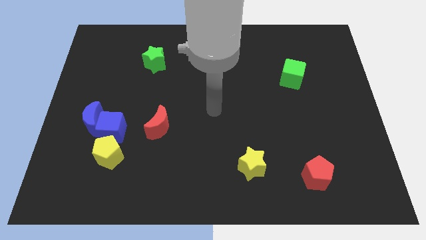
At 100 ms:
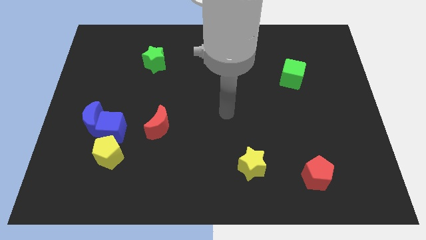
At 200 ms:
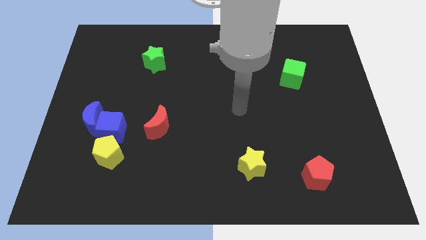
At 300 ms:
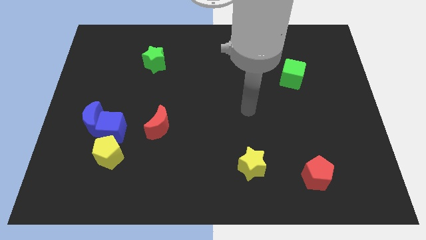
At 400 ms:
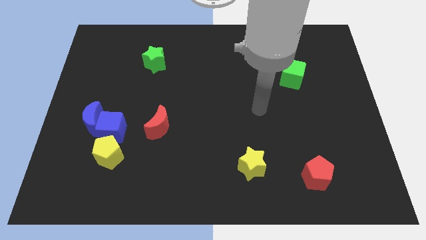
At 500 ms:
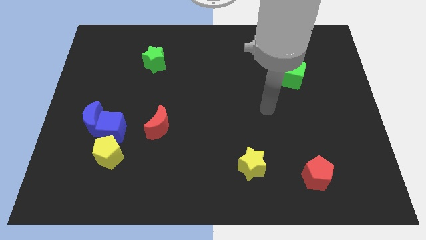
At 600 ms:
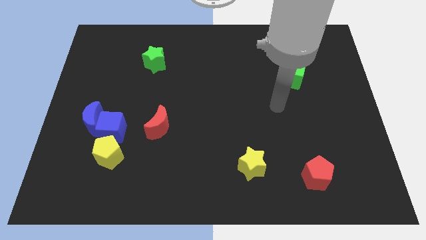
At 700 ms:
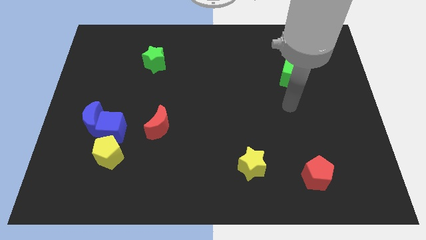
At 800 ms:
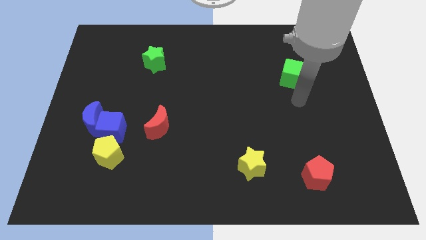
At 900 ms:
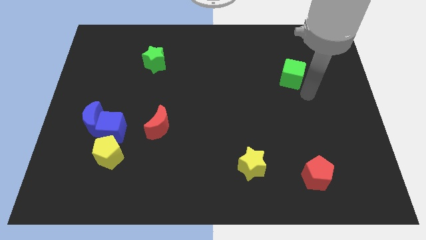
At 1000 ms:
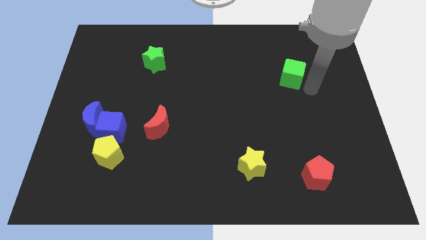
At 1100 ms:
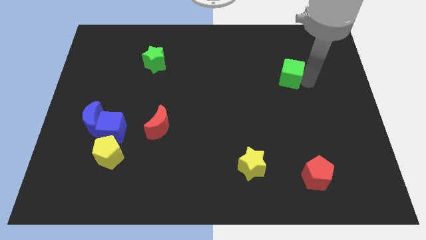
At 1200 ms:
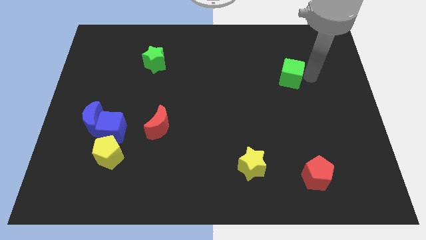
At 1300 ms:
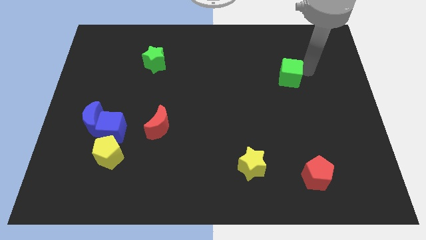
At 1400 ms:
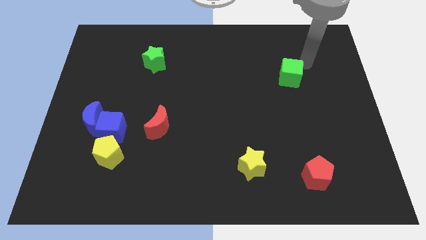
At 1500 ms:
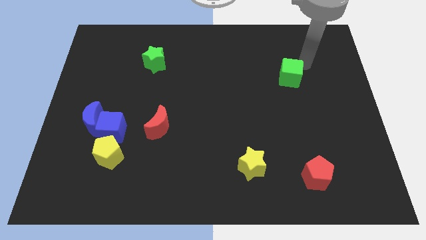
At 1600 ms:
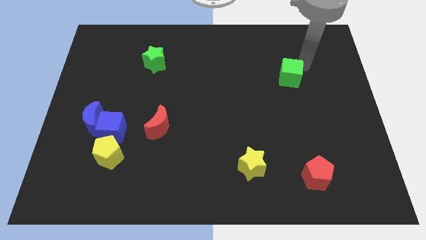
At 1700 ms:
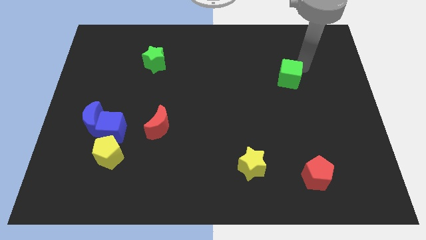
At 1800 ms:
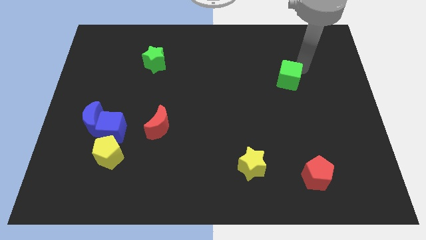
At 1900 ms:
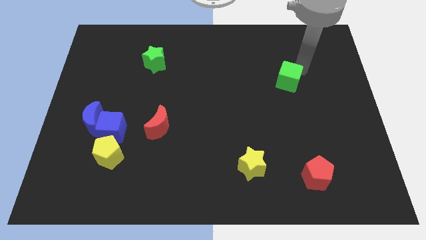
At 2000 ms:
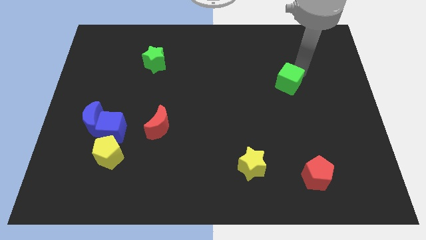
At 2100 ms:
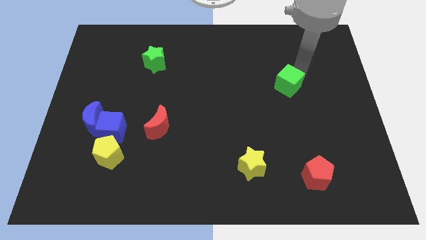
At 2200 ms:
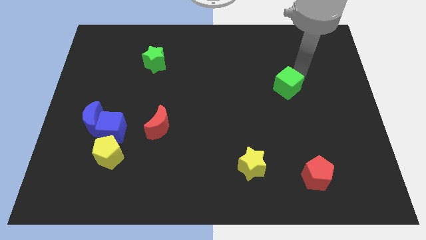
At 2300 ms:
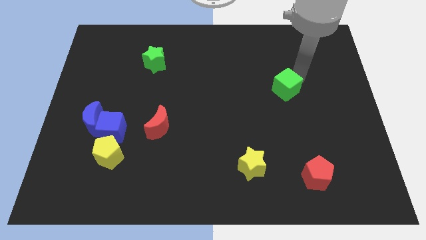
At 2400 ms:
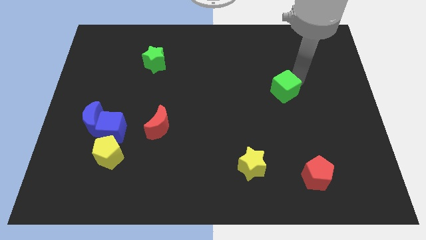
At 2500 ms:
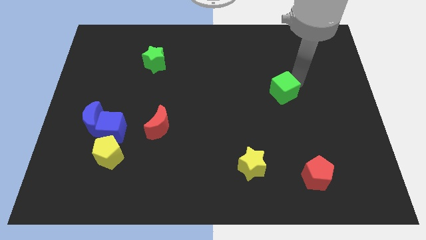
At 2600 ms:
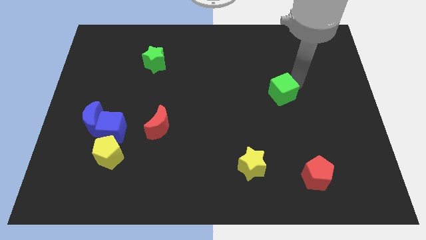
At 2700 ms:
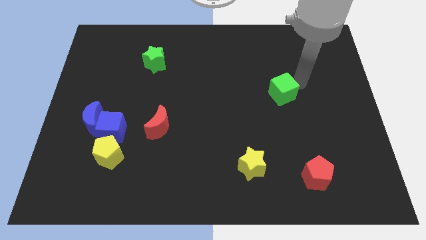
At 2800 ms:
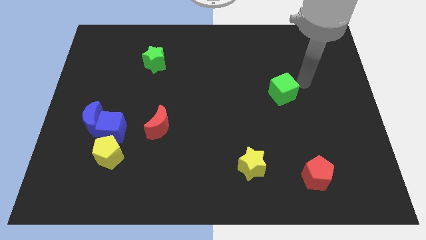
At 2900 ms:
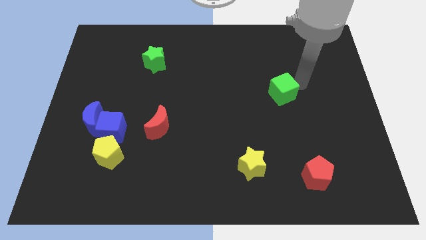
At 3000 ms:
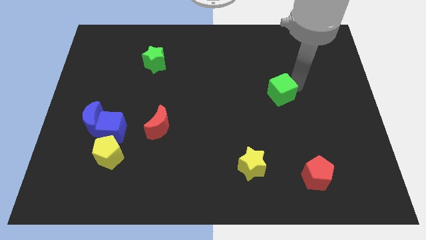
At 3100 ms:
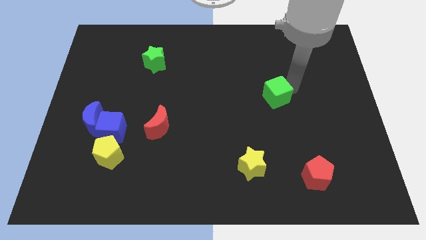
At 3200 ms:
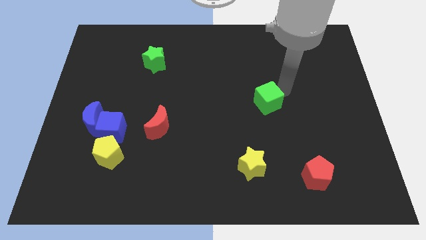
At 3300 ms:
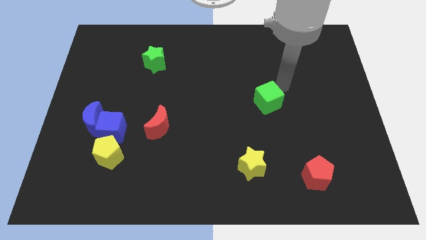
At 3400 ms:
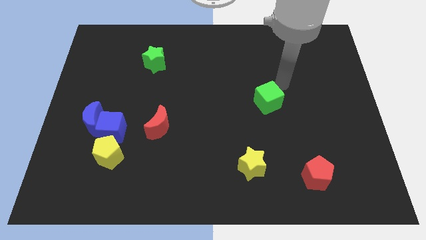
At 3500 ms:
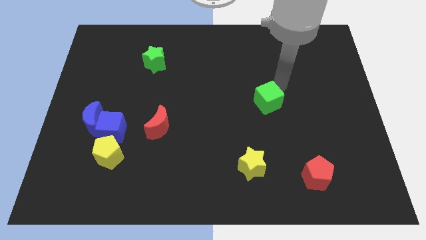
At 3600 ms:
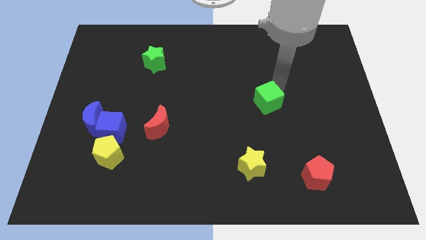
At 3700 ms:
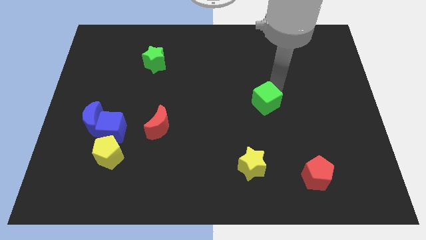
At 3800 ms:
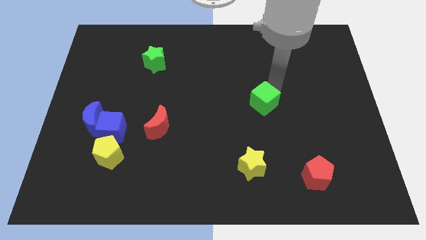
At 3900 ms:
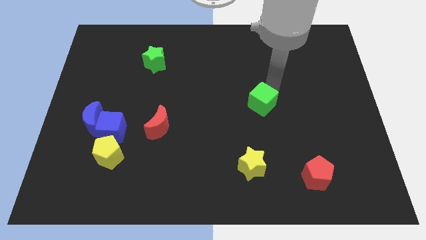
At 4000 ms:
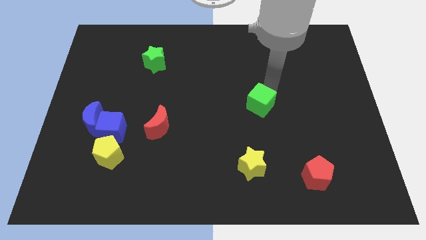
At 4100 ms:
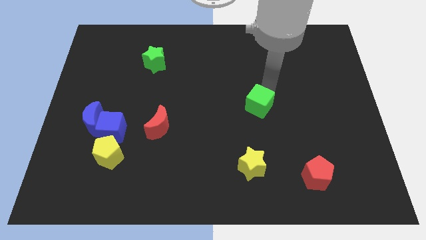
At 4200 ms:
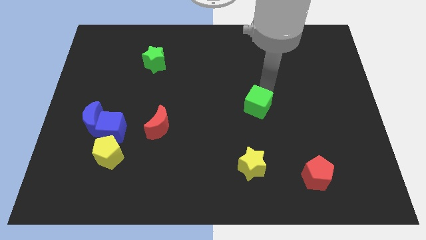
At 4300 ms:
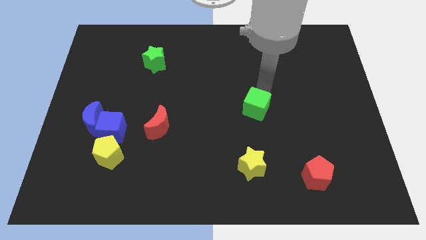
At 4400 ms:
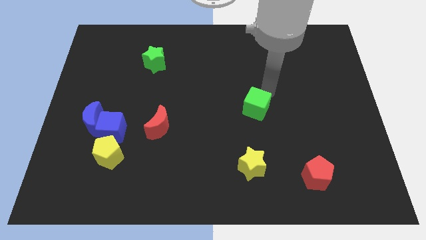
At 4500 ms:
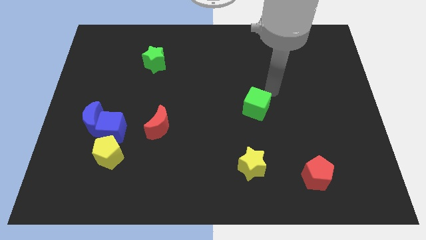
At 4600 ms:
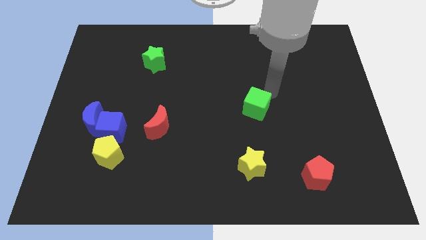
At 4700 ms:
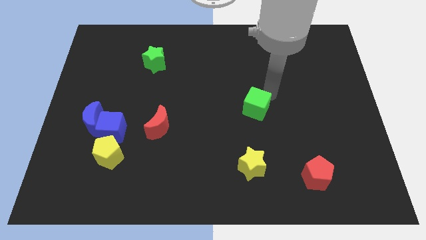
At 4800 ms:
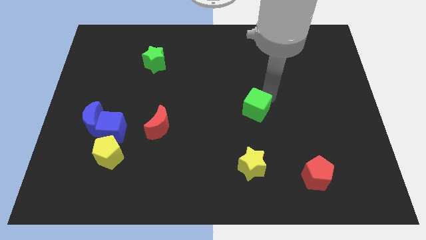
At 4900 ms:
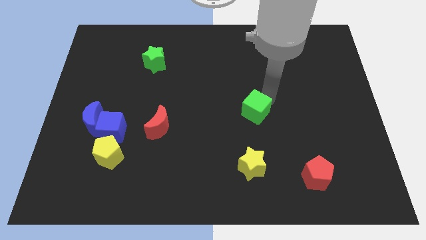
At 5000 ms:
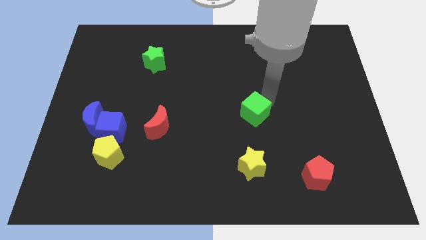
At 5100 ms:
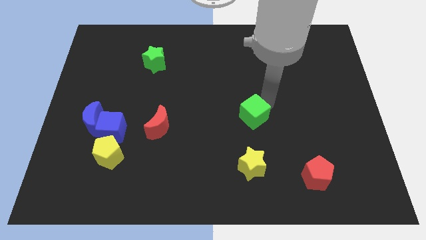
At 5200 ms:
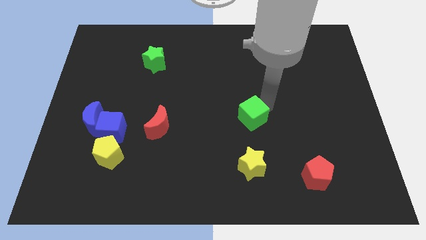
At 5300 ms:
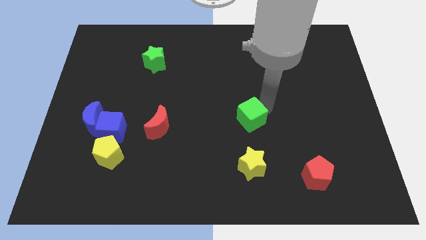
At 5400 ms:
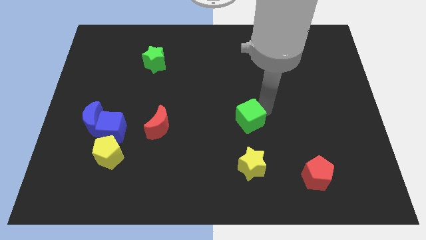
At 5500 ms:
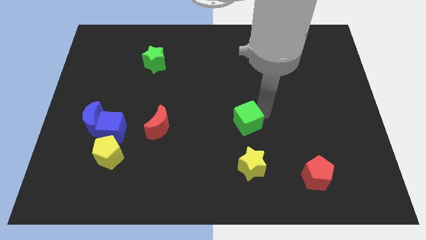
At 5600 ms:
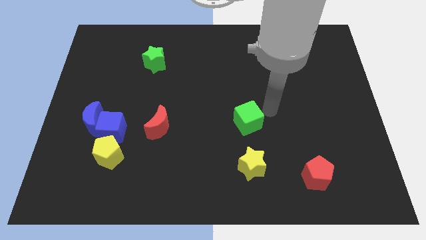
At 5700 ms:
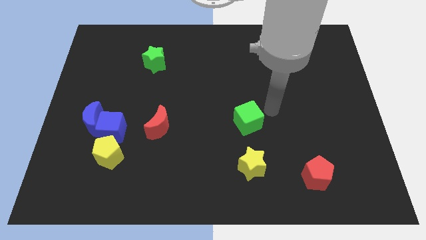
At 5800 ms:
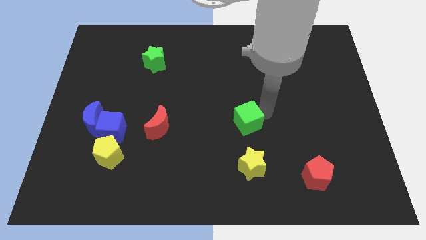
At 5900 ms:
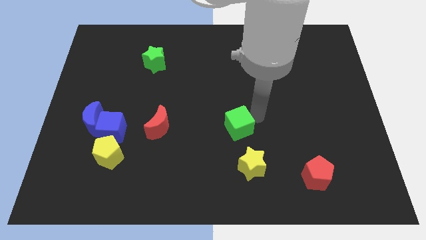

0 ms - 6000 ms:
push the green cube diagonally down and left

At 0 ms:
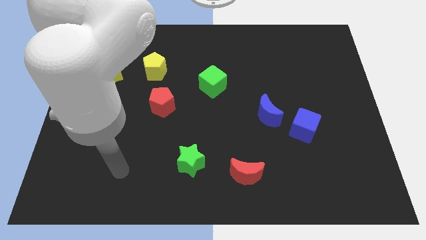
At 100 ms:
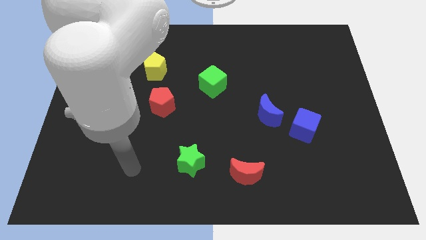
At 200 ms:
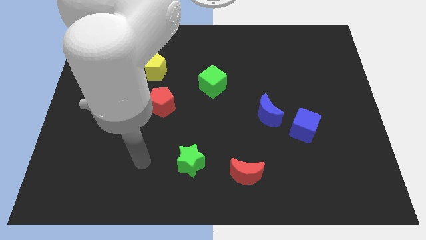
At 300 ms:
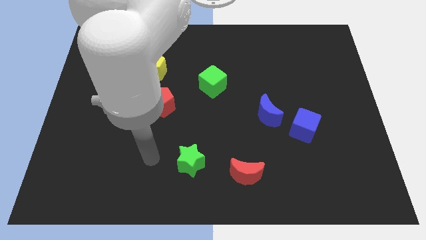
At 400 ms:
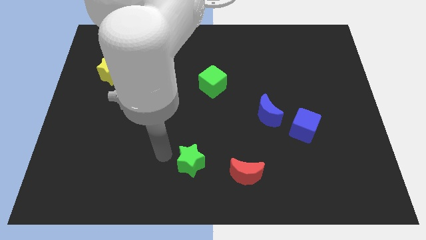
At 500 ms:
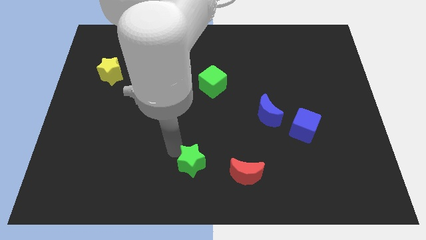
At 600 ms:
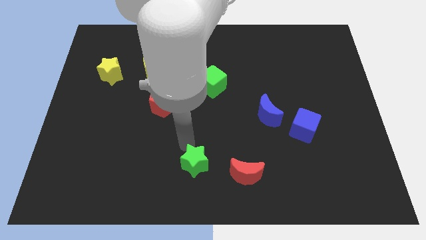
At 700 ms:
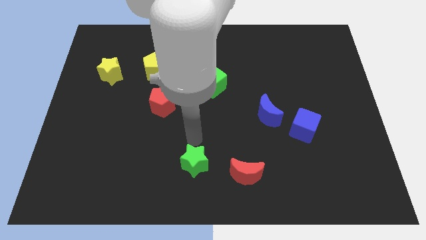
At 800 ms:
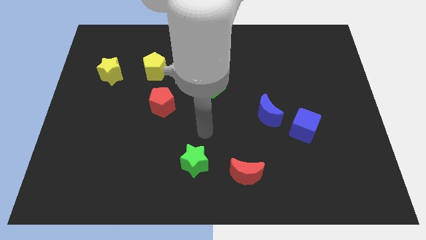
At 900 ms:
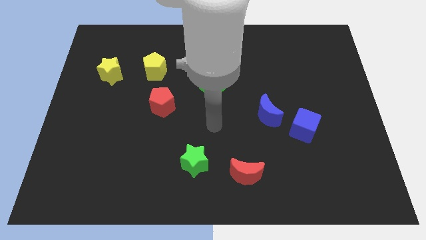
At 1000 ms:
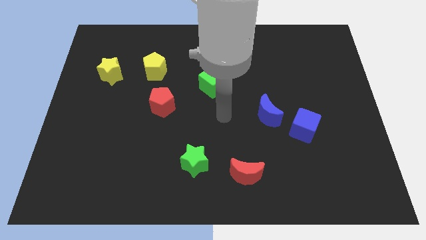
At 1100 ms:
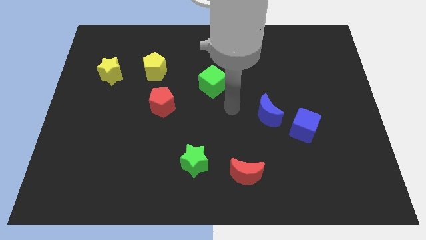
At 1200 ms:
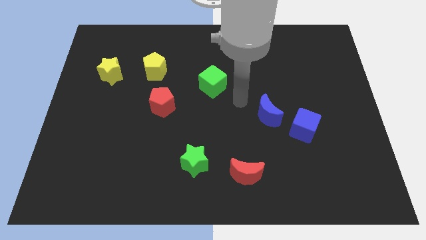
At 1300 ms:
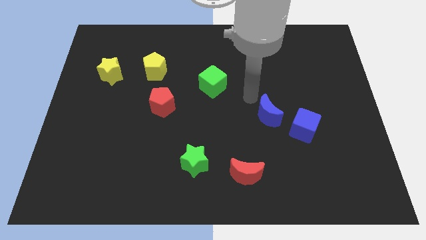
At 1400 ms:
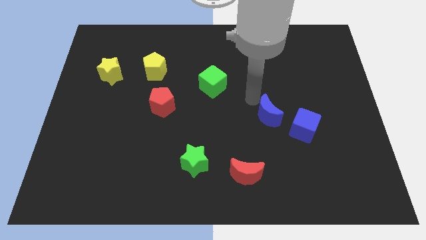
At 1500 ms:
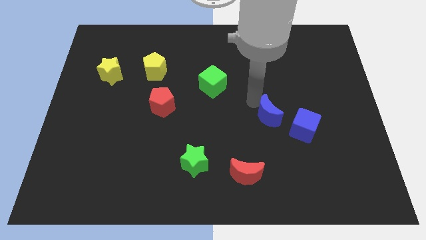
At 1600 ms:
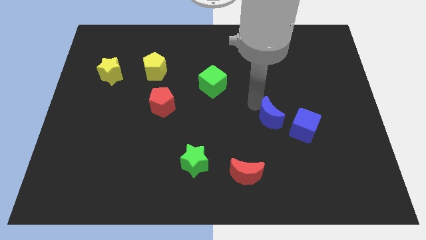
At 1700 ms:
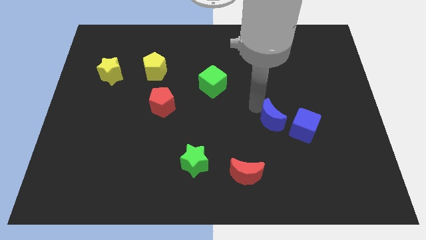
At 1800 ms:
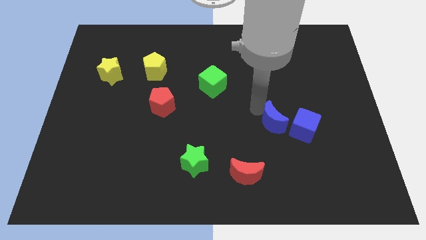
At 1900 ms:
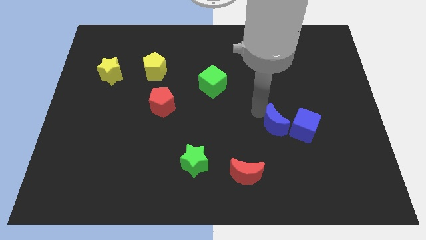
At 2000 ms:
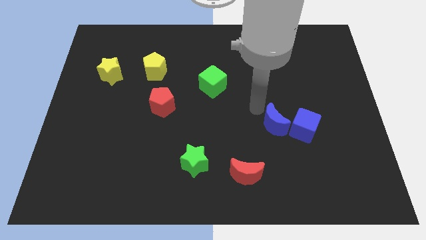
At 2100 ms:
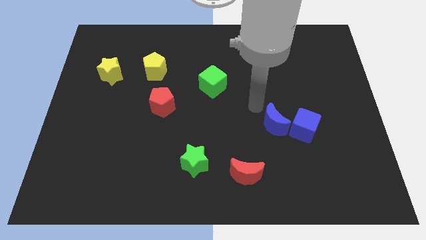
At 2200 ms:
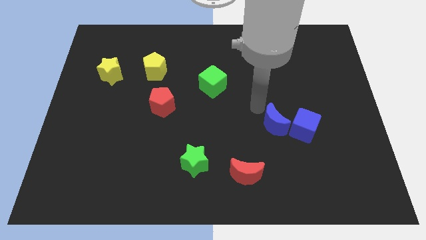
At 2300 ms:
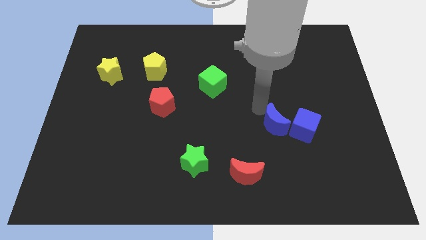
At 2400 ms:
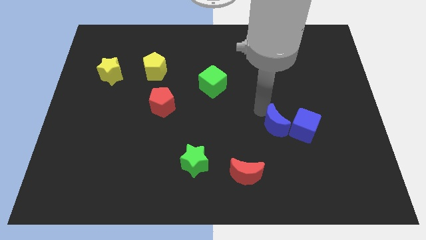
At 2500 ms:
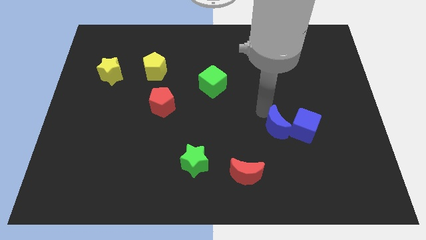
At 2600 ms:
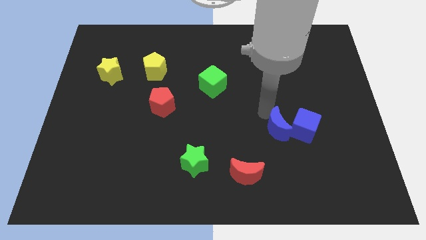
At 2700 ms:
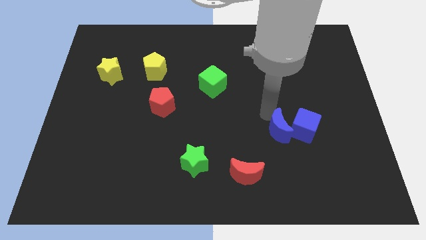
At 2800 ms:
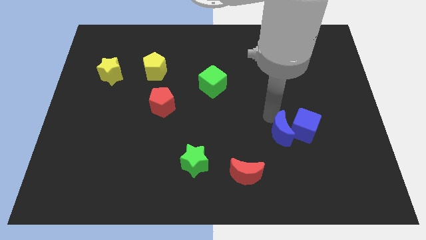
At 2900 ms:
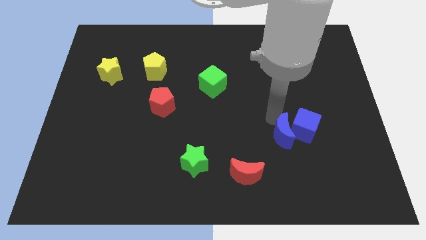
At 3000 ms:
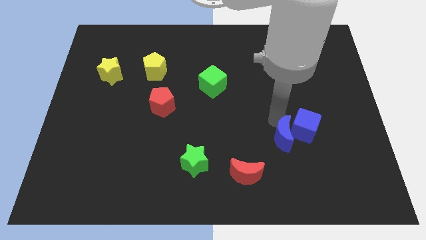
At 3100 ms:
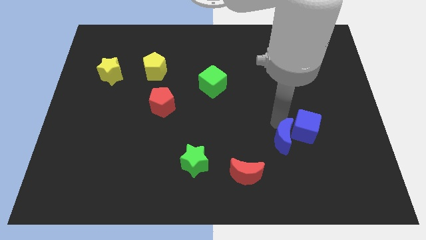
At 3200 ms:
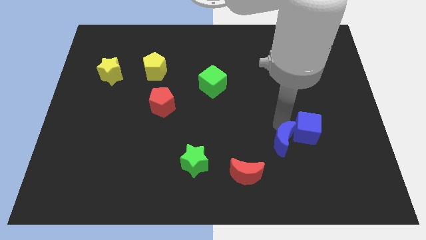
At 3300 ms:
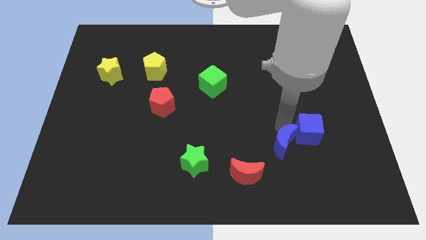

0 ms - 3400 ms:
move the blue moon somewhat diagonally down and to the right
